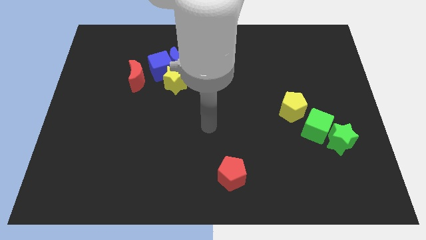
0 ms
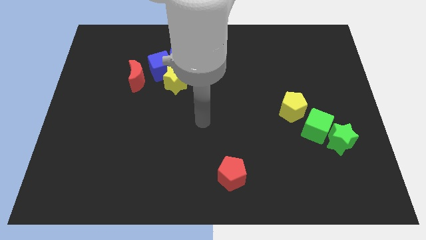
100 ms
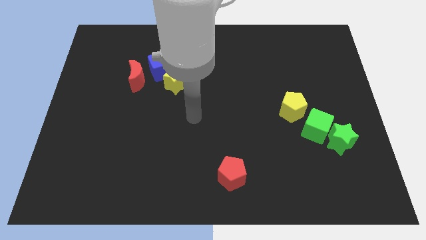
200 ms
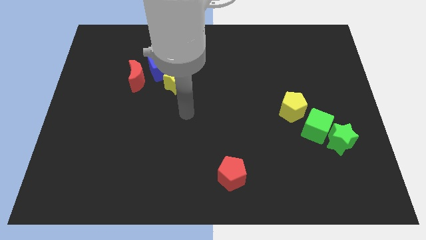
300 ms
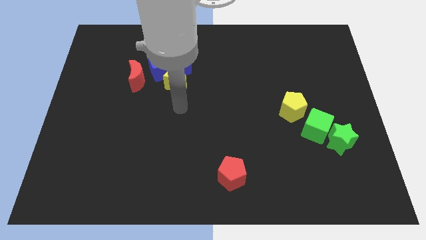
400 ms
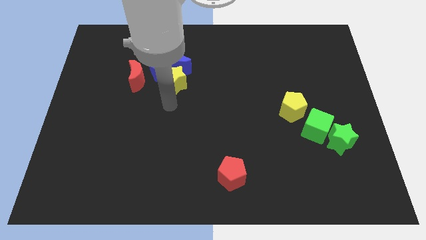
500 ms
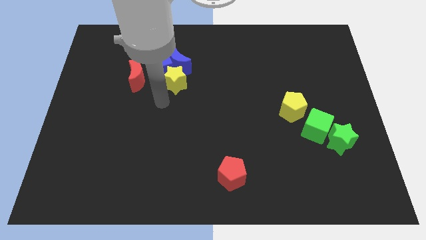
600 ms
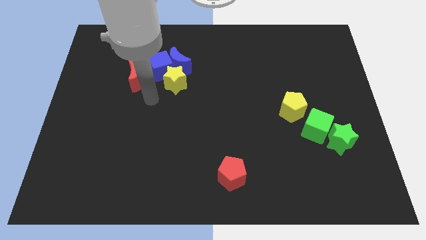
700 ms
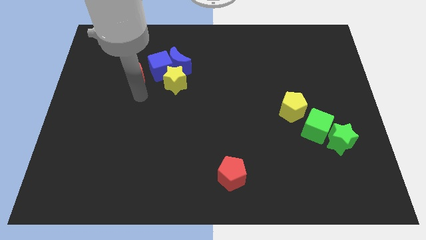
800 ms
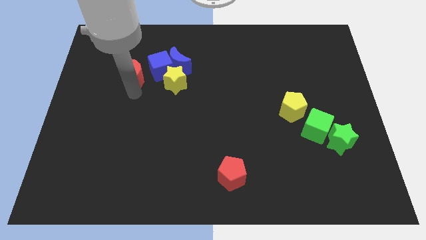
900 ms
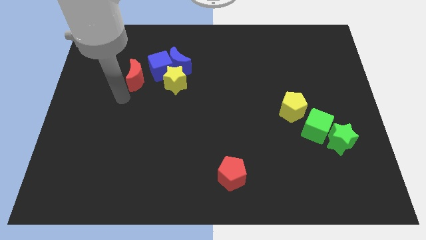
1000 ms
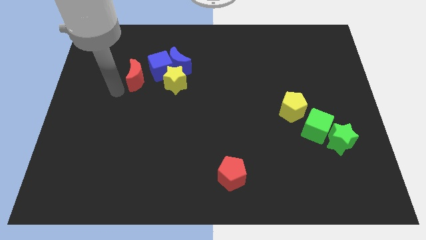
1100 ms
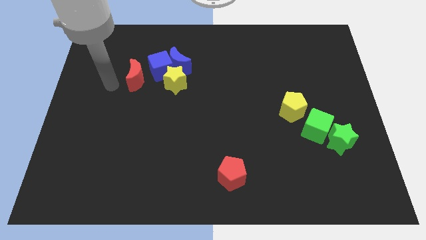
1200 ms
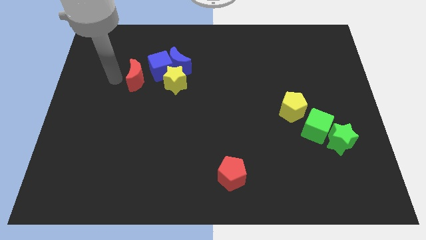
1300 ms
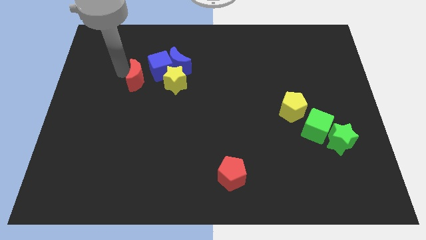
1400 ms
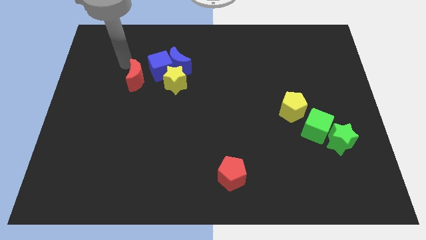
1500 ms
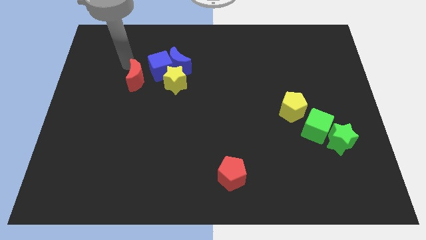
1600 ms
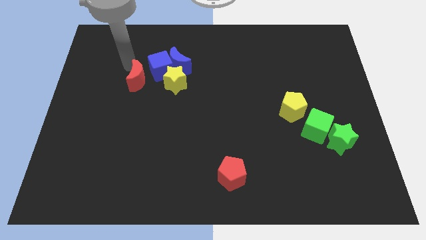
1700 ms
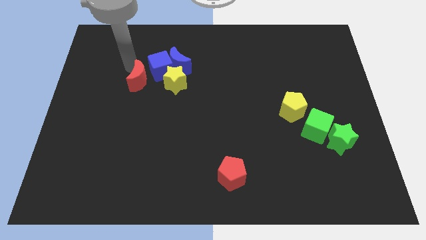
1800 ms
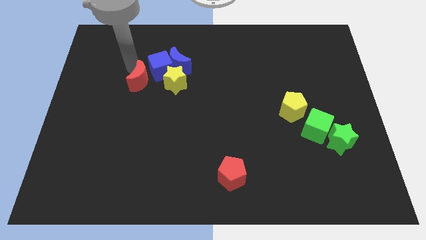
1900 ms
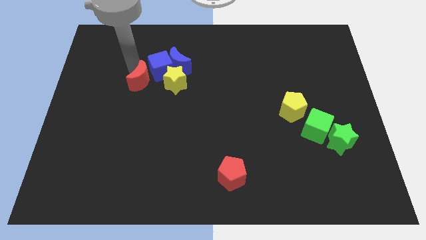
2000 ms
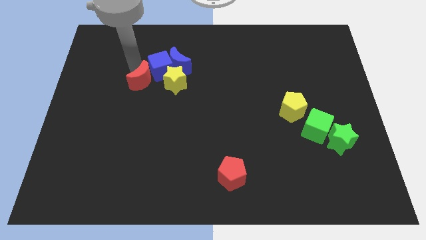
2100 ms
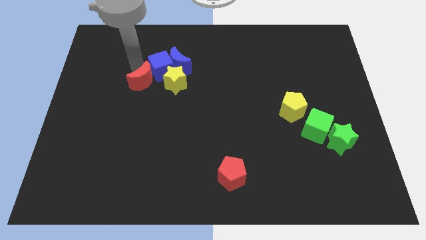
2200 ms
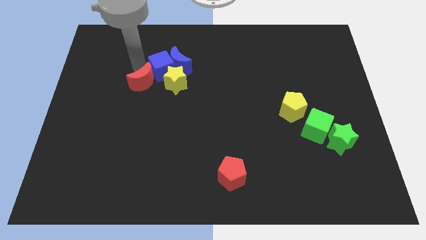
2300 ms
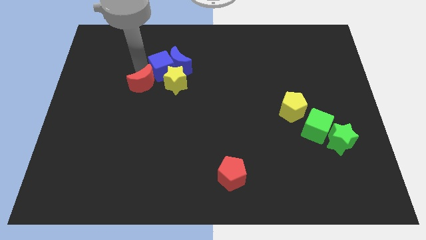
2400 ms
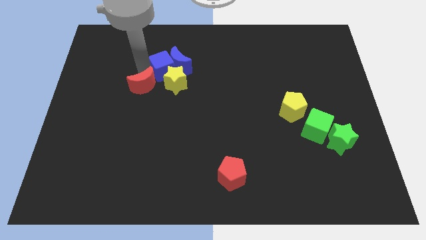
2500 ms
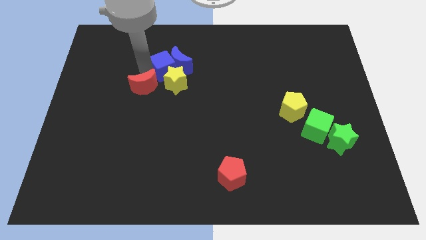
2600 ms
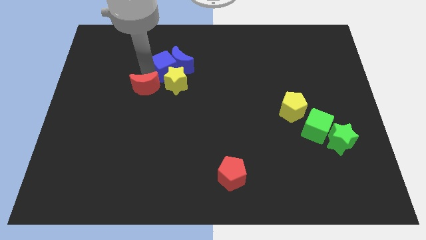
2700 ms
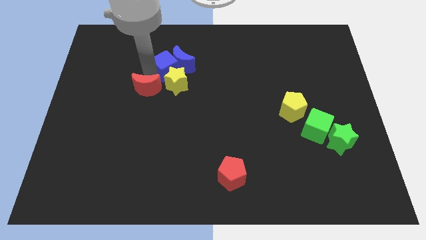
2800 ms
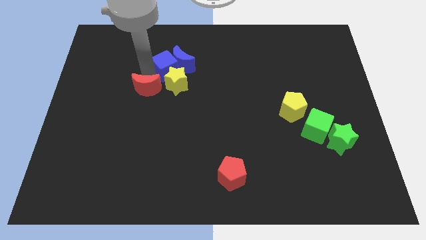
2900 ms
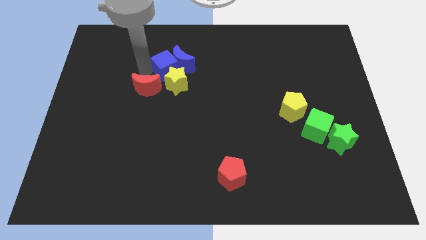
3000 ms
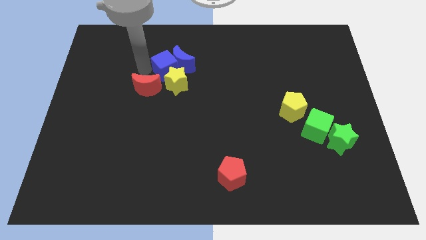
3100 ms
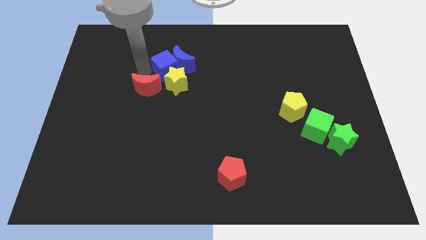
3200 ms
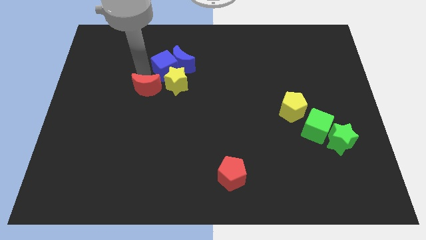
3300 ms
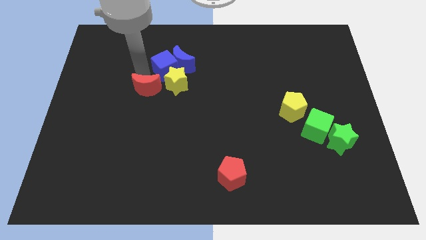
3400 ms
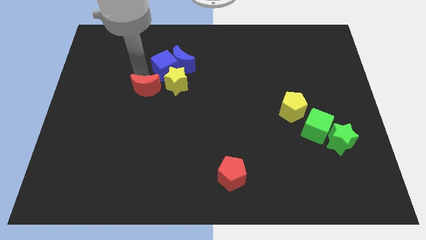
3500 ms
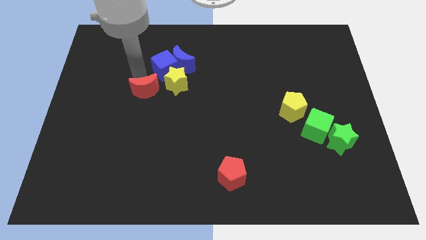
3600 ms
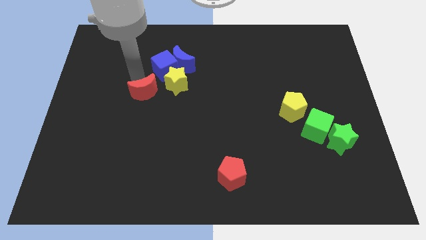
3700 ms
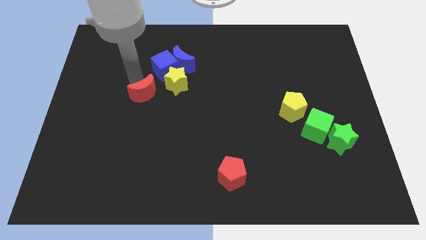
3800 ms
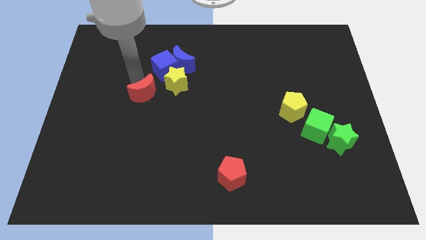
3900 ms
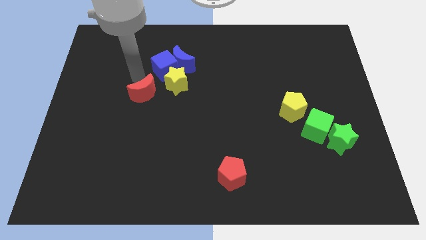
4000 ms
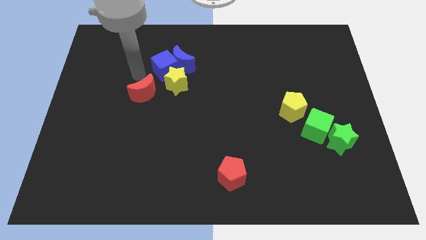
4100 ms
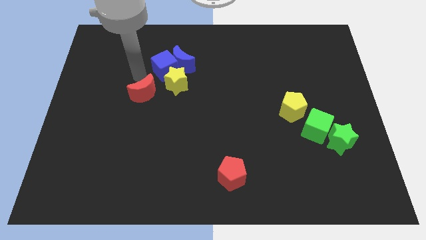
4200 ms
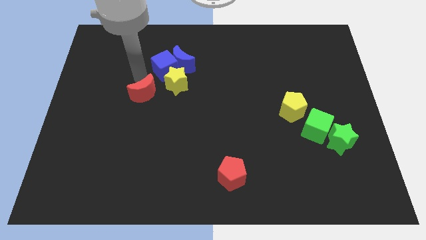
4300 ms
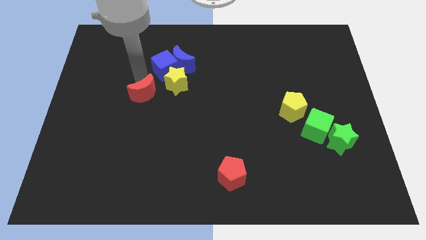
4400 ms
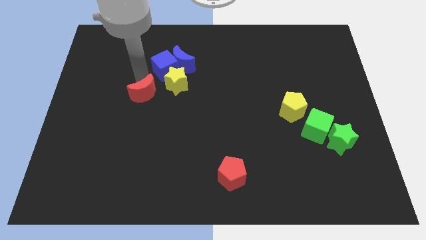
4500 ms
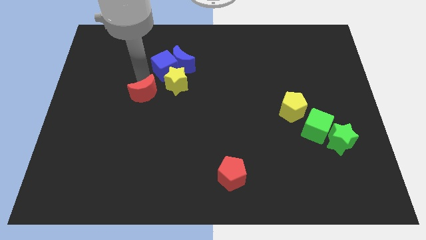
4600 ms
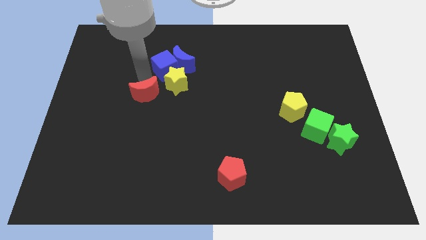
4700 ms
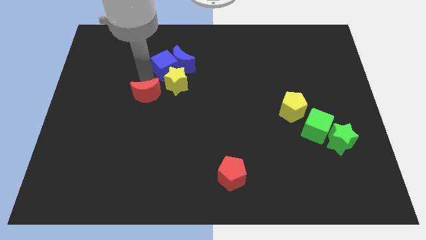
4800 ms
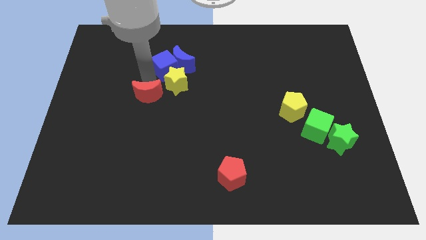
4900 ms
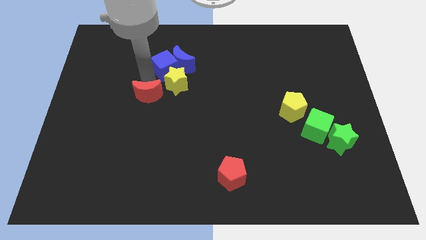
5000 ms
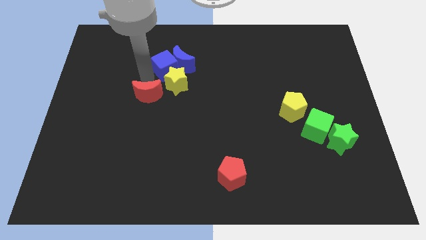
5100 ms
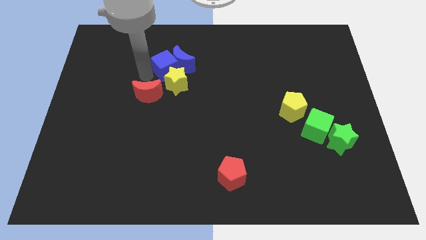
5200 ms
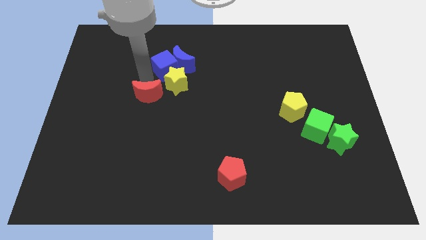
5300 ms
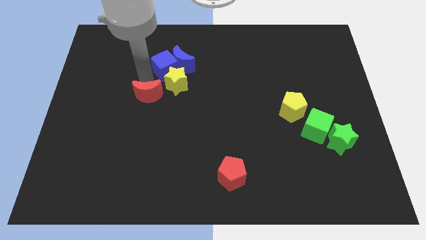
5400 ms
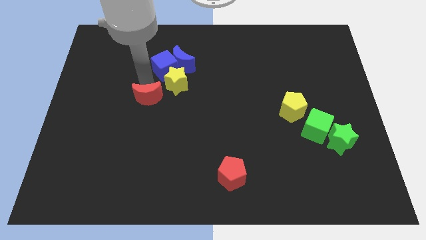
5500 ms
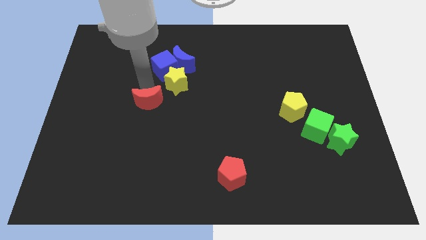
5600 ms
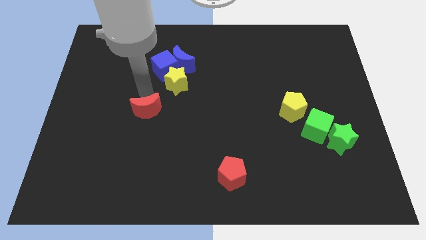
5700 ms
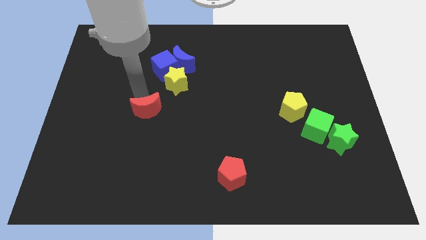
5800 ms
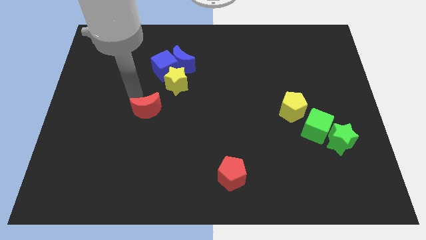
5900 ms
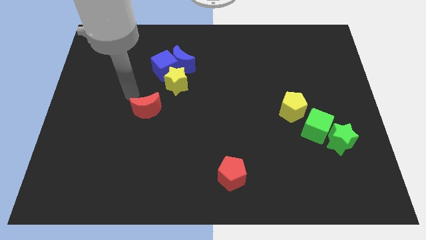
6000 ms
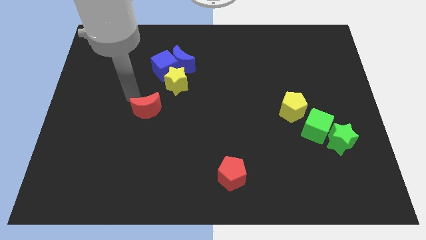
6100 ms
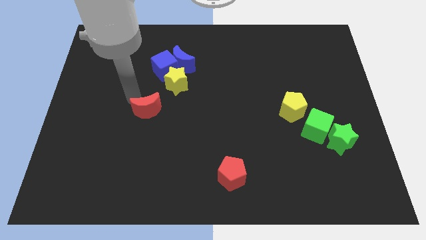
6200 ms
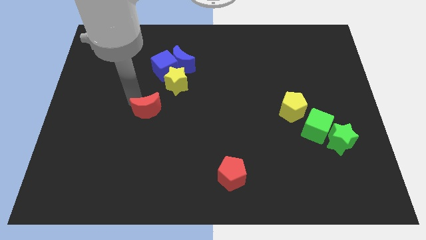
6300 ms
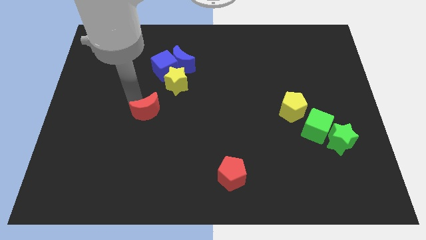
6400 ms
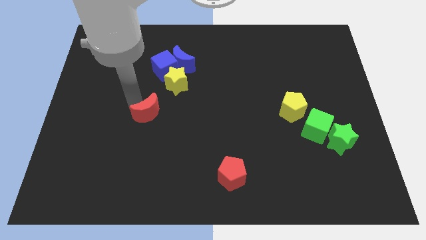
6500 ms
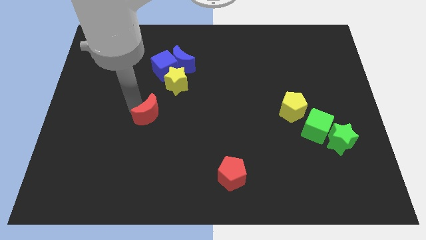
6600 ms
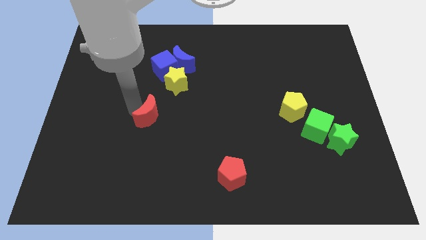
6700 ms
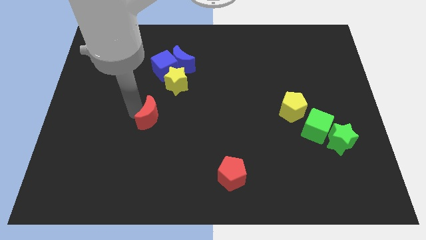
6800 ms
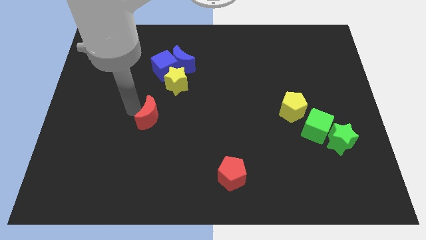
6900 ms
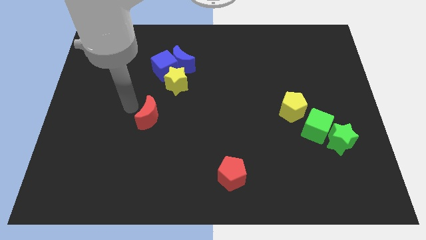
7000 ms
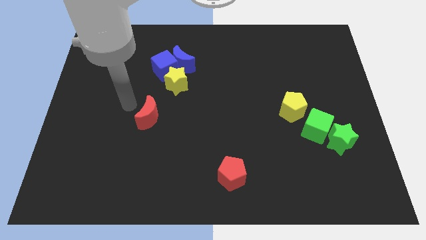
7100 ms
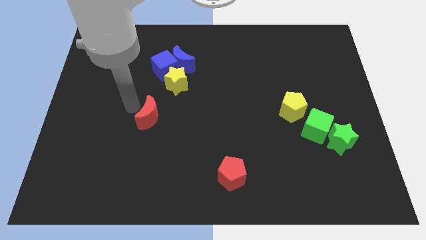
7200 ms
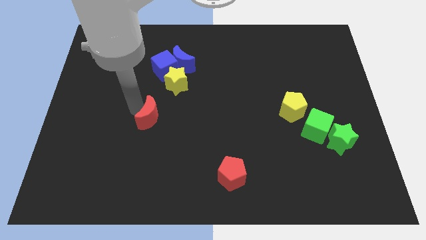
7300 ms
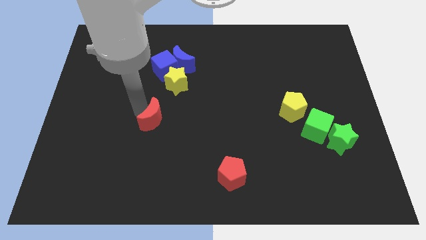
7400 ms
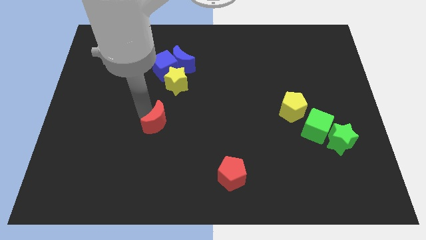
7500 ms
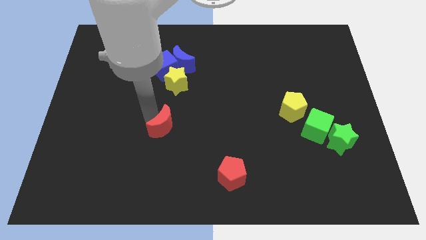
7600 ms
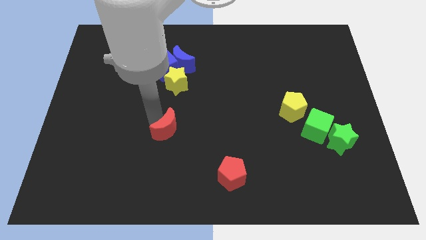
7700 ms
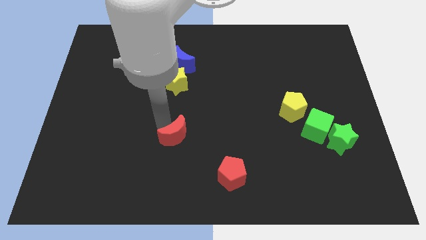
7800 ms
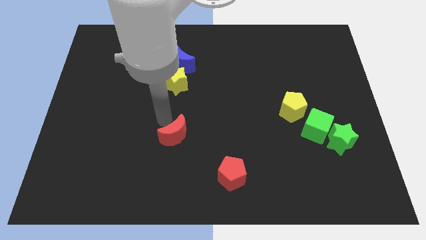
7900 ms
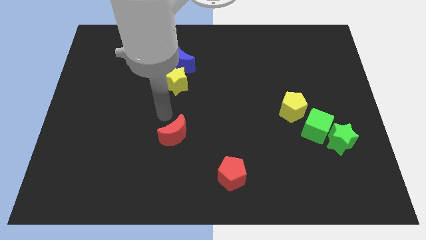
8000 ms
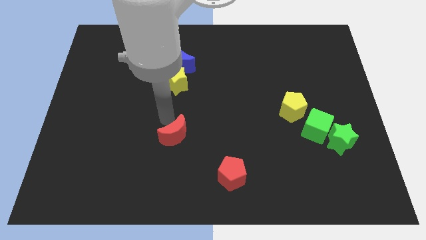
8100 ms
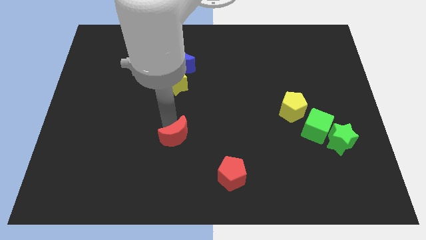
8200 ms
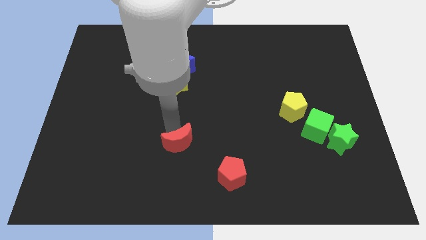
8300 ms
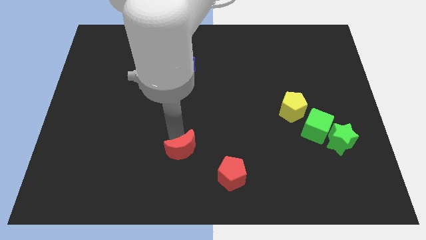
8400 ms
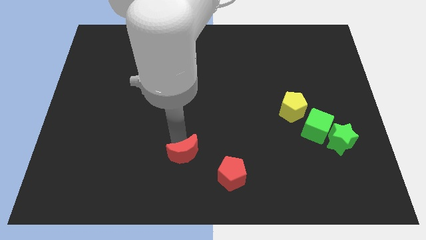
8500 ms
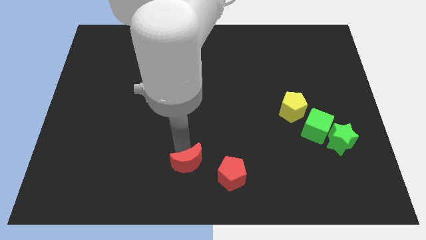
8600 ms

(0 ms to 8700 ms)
push the red moon to the bottom side
